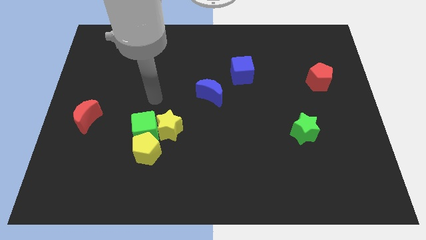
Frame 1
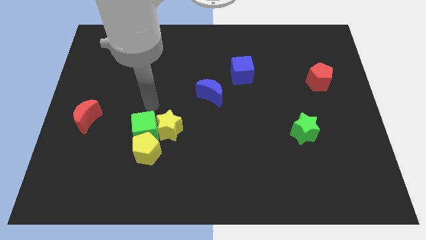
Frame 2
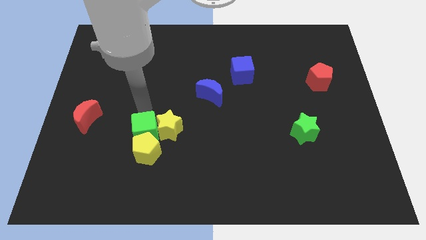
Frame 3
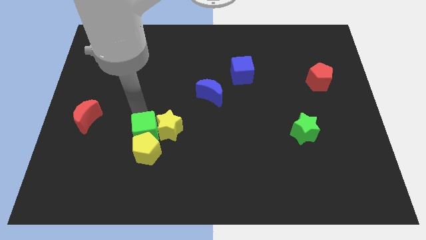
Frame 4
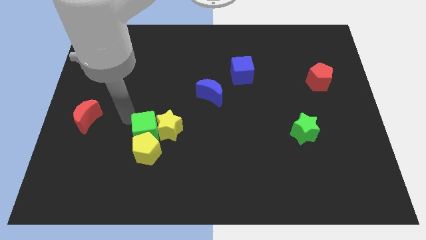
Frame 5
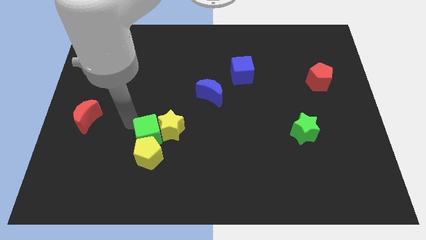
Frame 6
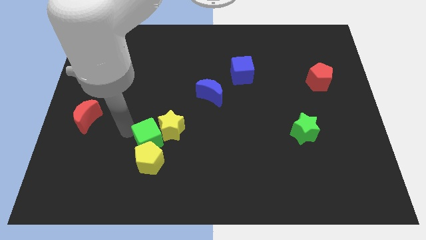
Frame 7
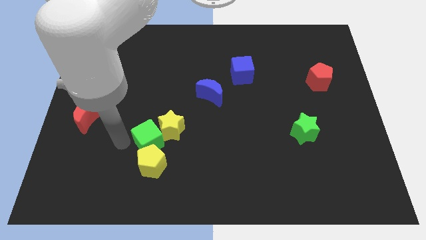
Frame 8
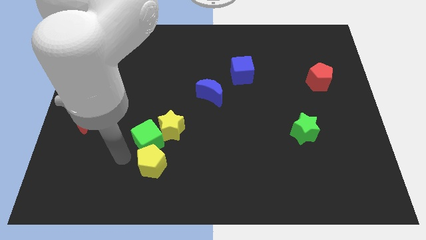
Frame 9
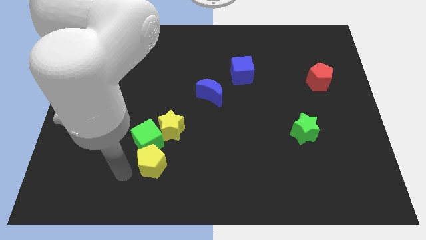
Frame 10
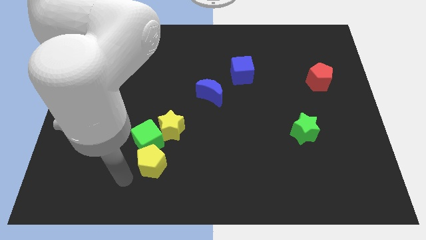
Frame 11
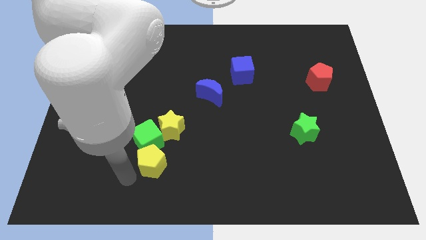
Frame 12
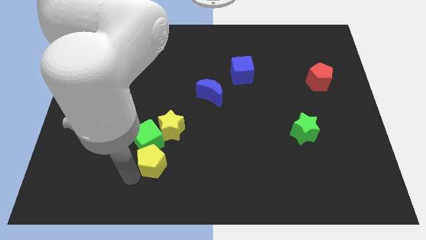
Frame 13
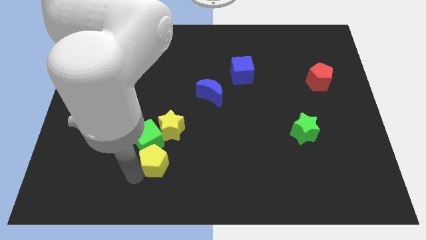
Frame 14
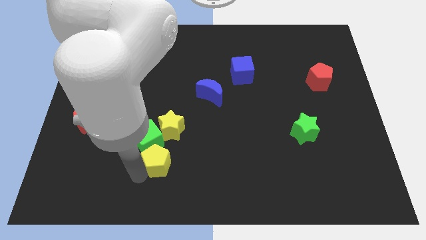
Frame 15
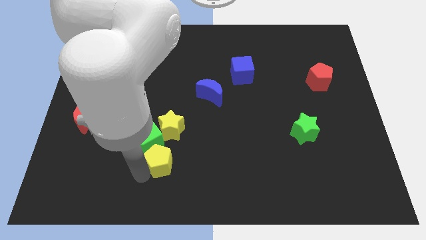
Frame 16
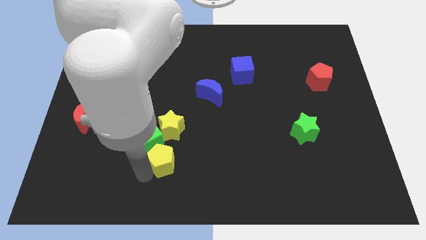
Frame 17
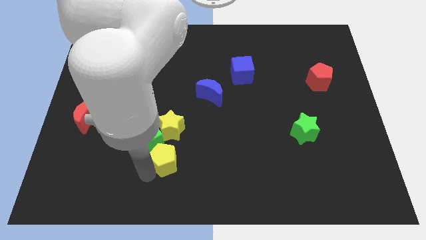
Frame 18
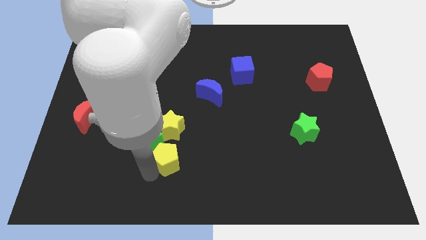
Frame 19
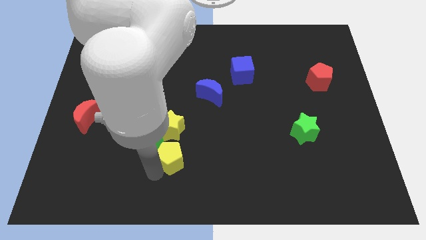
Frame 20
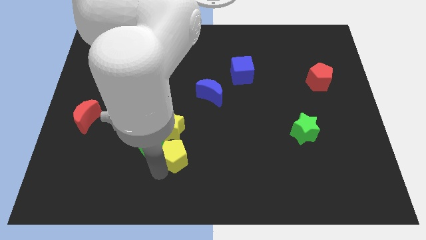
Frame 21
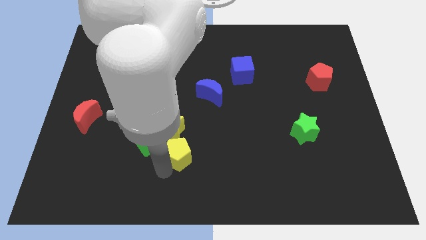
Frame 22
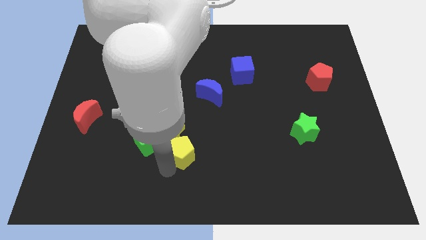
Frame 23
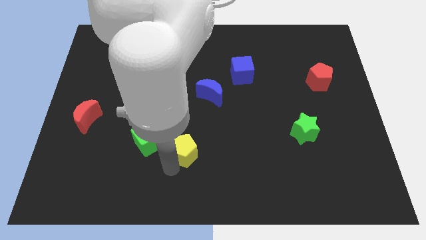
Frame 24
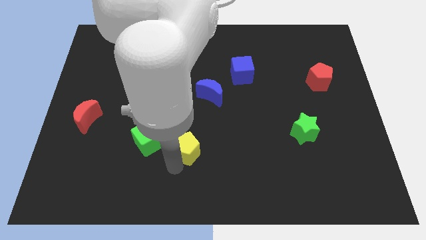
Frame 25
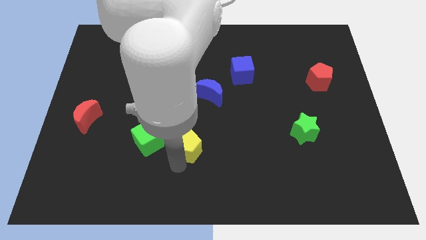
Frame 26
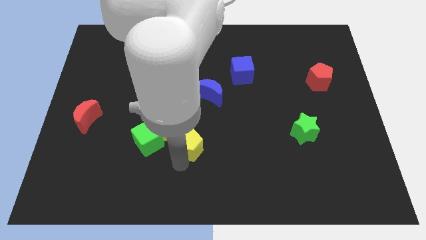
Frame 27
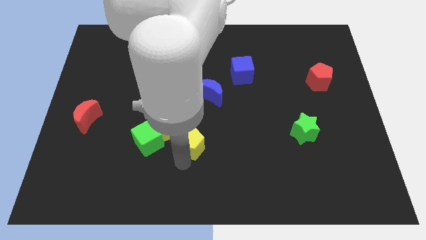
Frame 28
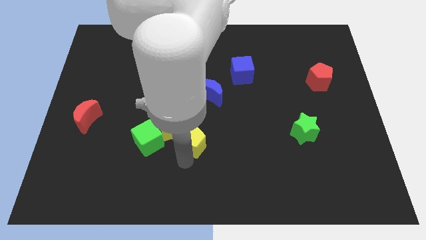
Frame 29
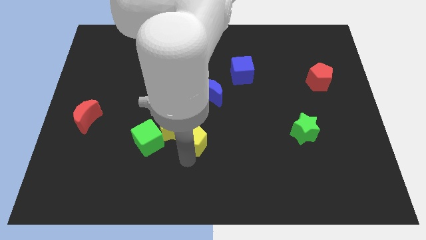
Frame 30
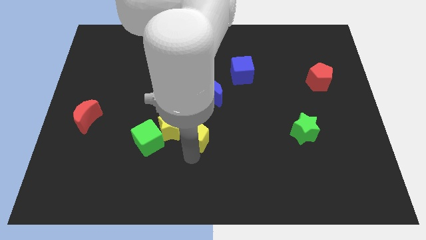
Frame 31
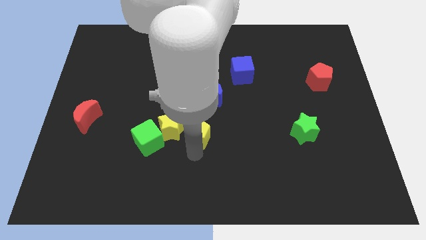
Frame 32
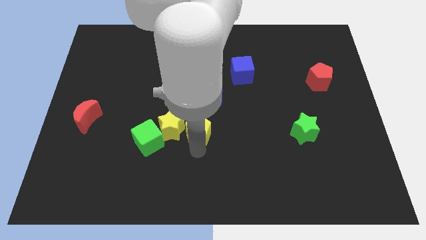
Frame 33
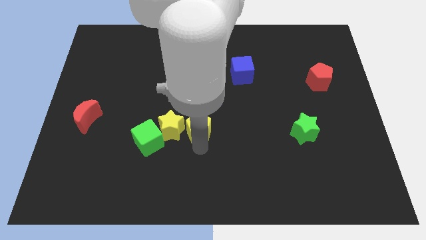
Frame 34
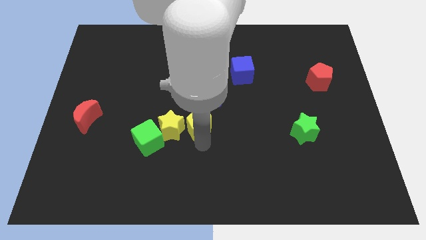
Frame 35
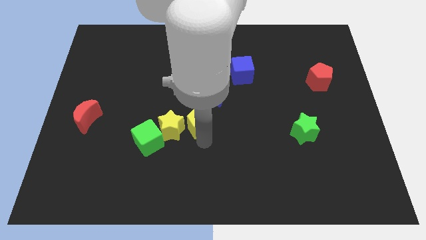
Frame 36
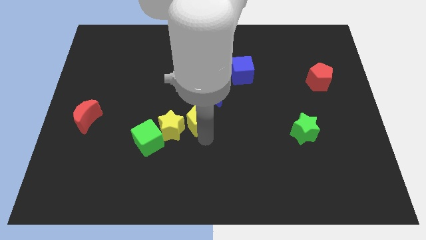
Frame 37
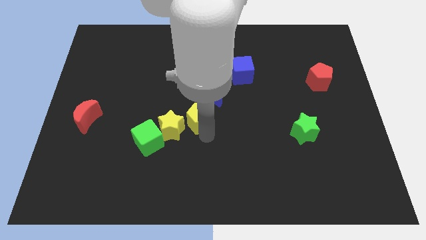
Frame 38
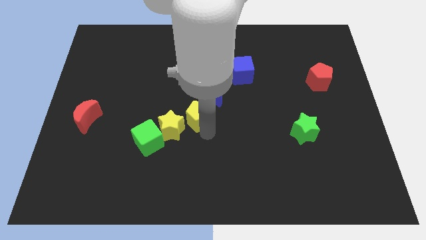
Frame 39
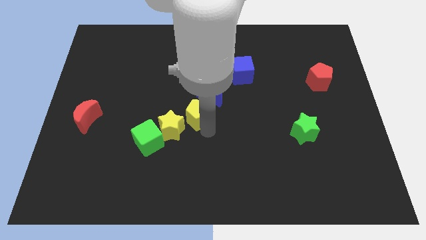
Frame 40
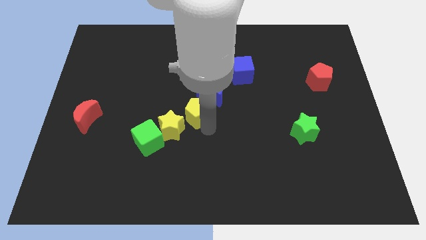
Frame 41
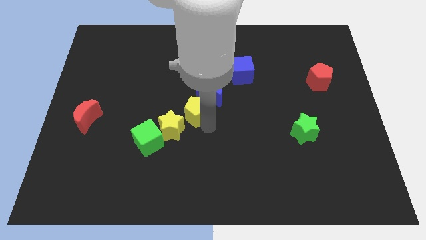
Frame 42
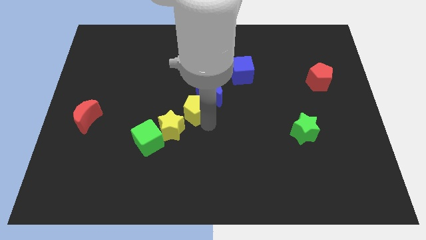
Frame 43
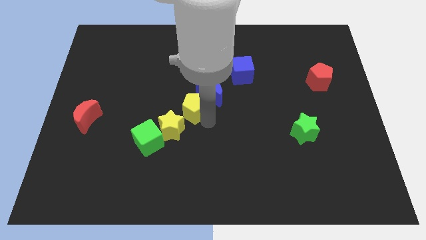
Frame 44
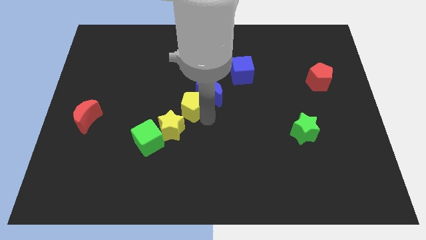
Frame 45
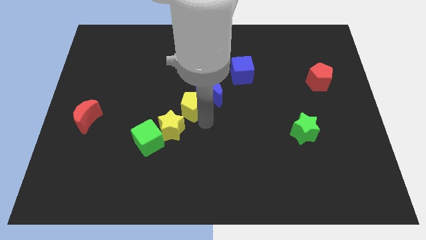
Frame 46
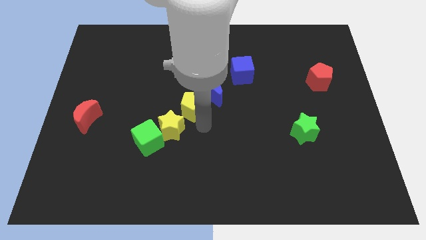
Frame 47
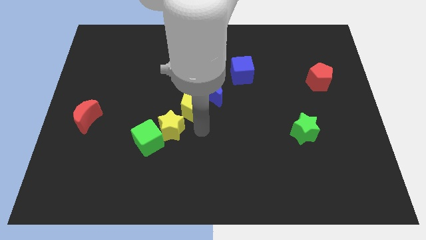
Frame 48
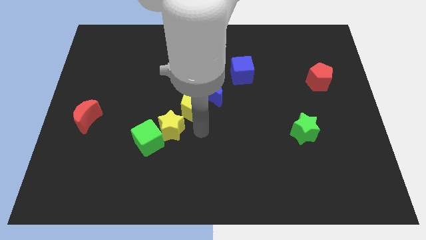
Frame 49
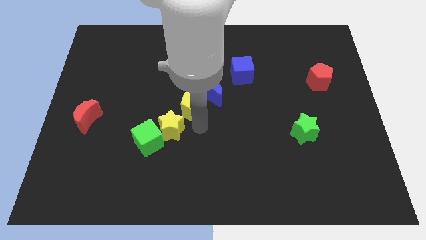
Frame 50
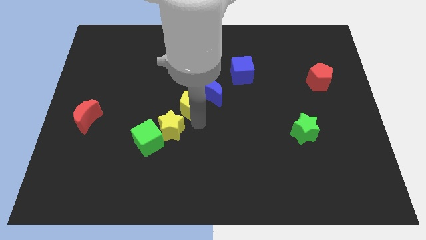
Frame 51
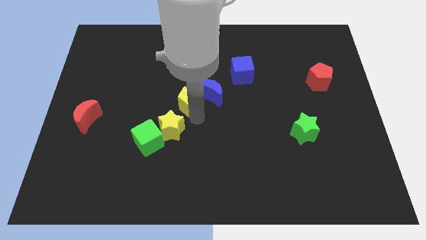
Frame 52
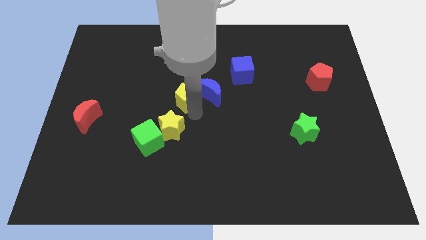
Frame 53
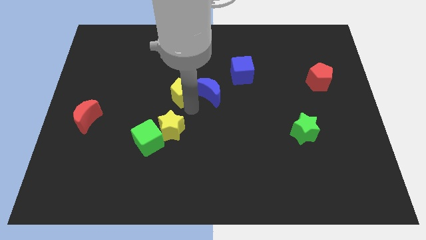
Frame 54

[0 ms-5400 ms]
move the yellow pentagon diagonally up and to the left of the blue moon

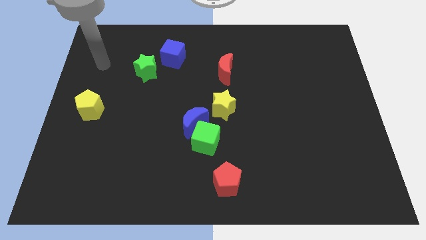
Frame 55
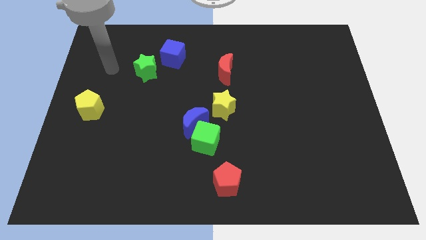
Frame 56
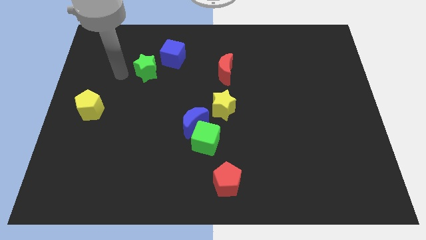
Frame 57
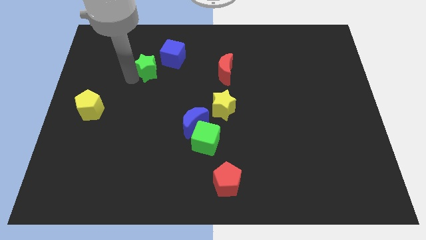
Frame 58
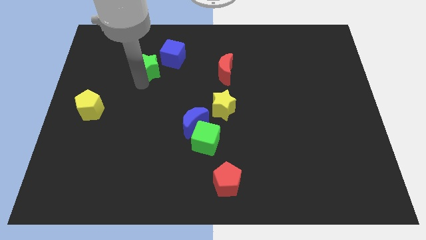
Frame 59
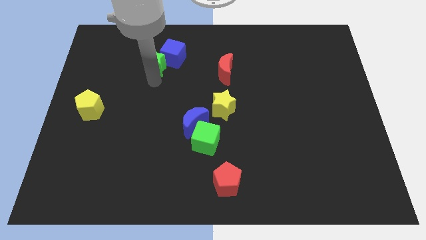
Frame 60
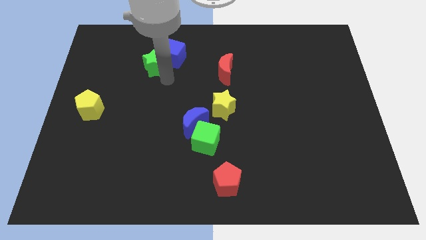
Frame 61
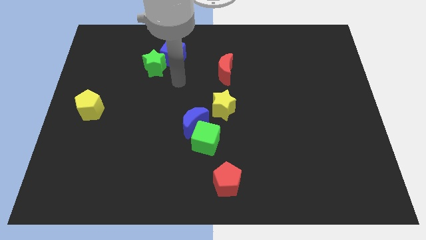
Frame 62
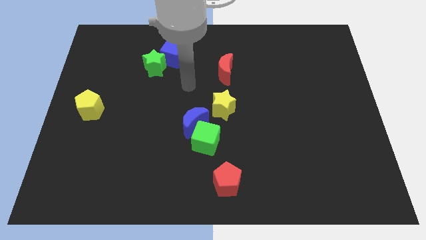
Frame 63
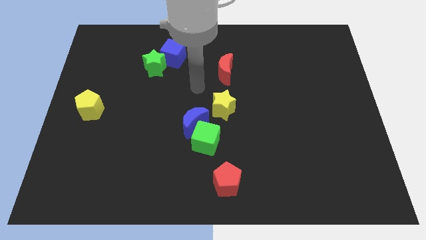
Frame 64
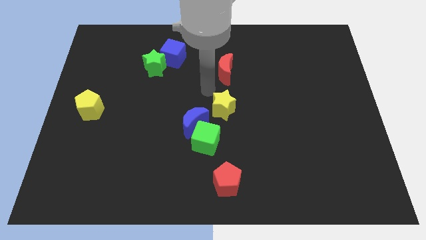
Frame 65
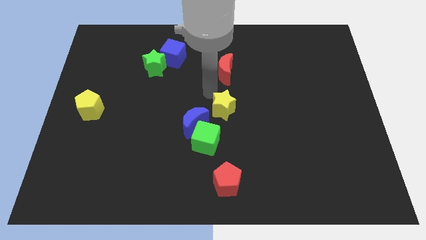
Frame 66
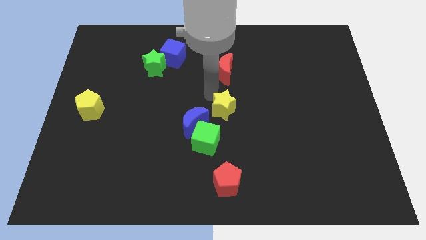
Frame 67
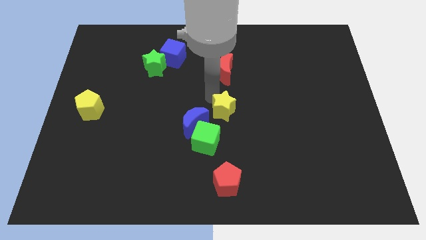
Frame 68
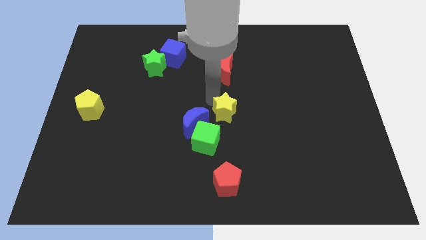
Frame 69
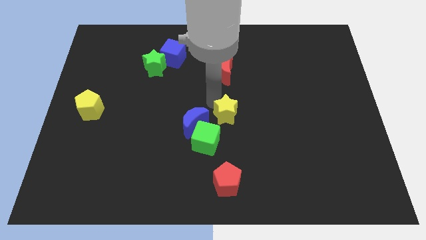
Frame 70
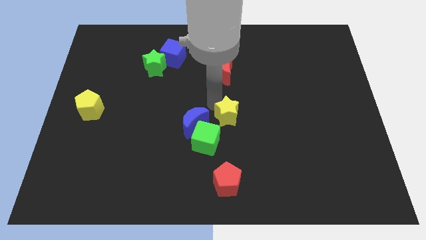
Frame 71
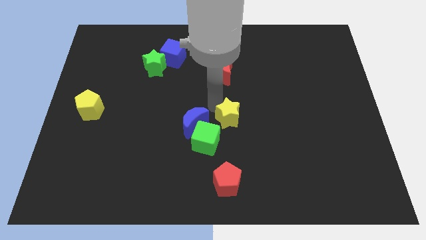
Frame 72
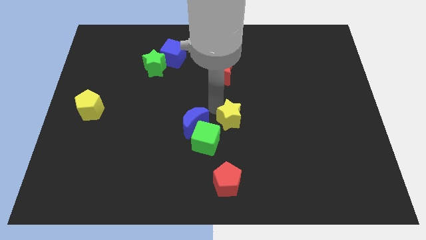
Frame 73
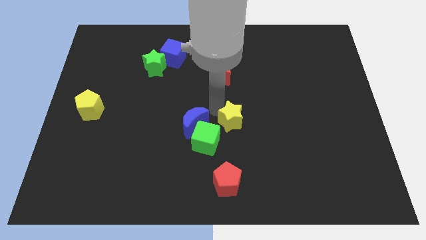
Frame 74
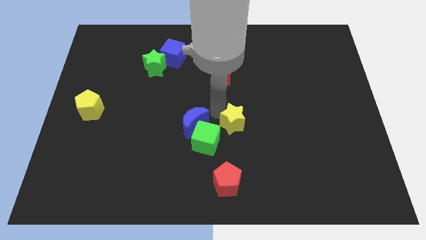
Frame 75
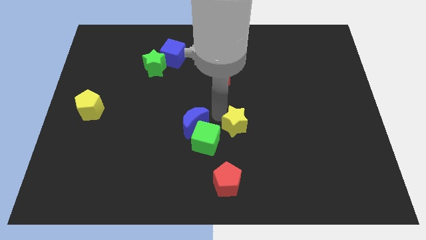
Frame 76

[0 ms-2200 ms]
slide the yellow star just right of the green cube
